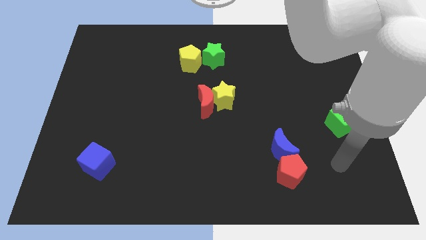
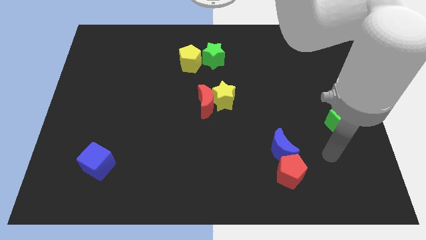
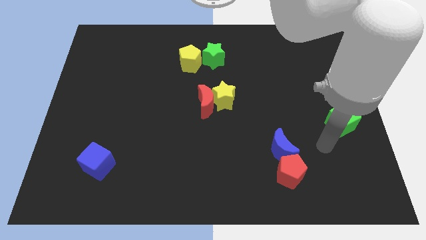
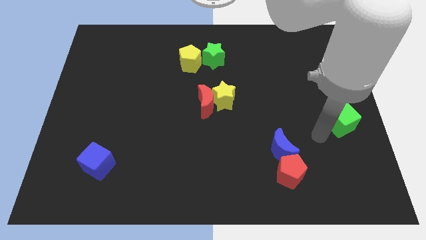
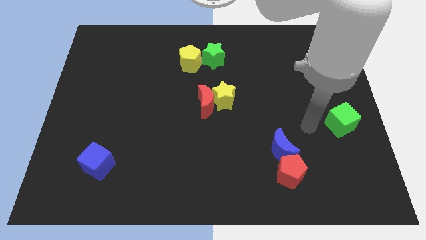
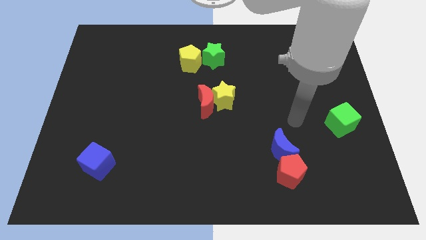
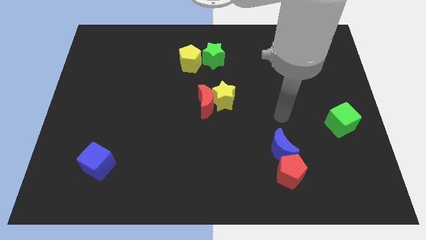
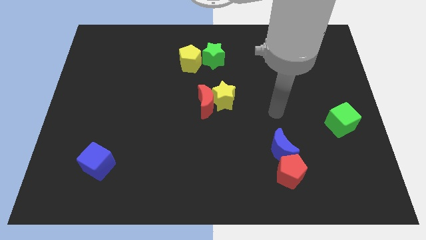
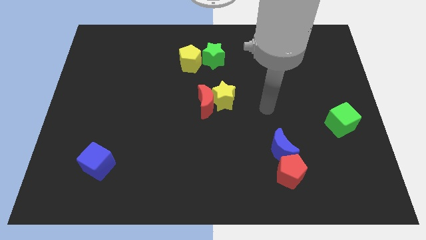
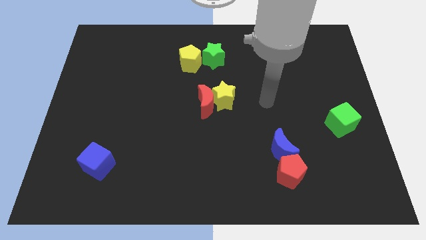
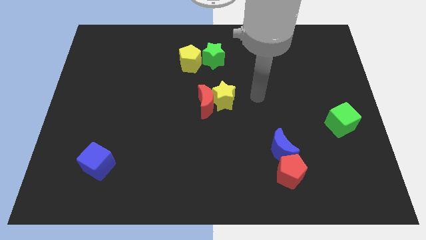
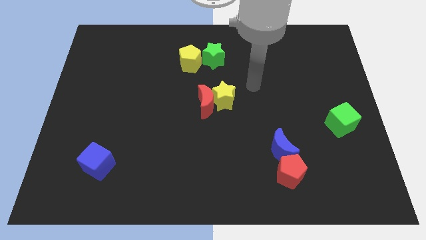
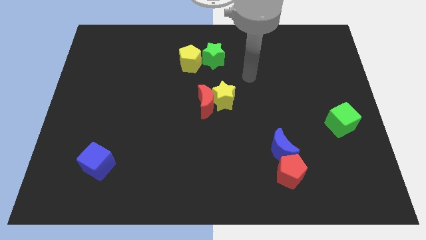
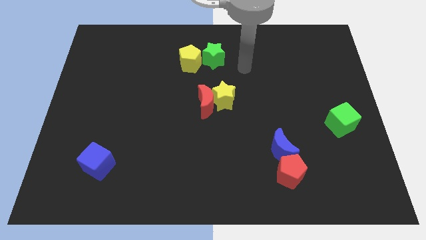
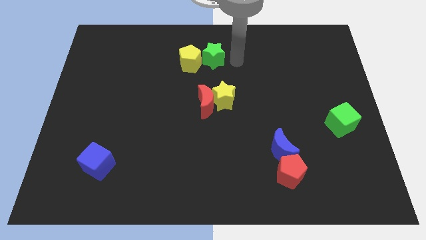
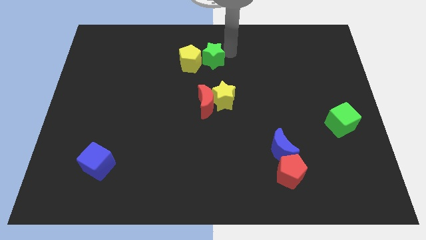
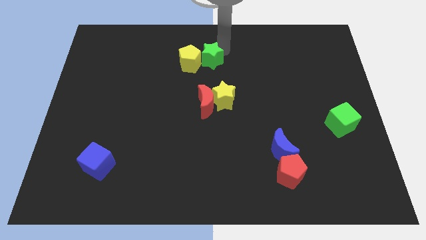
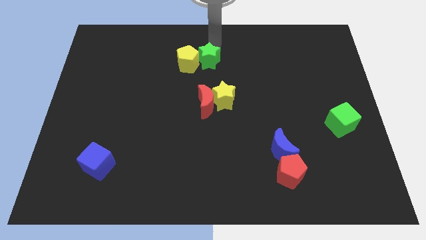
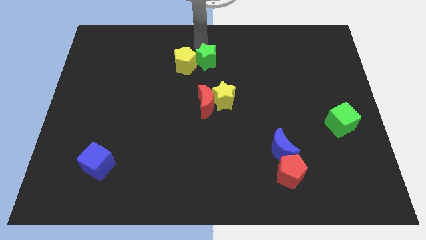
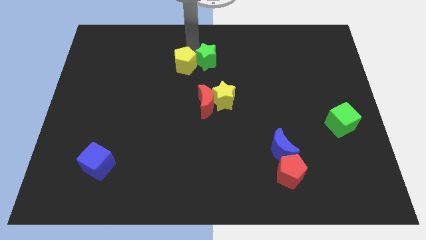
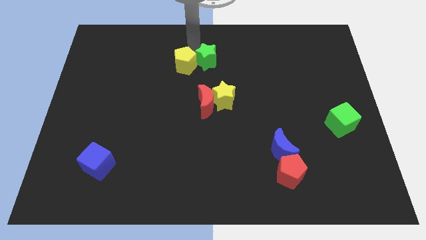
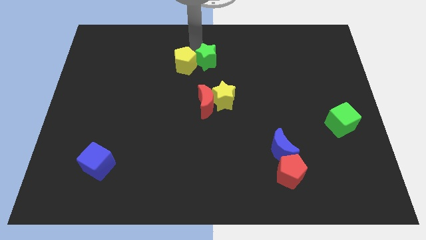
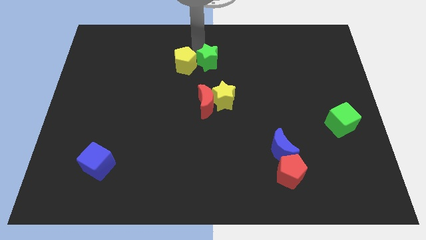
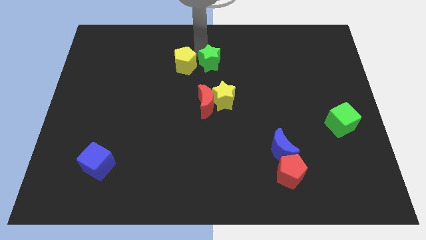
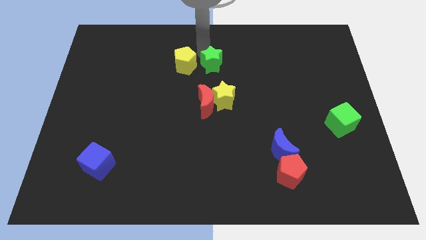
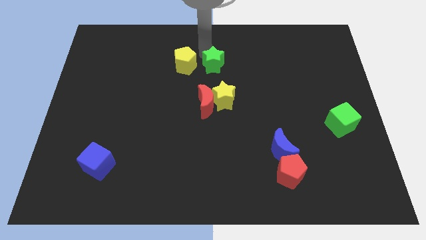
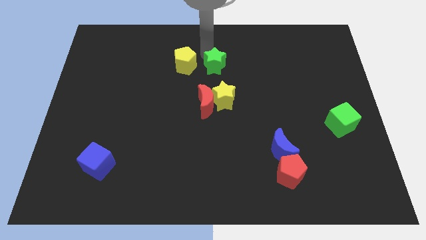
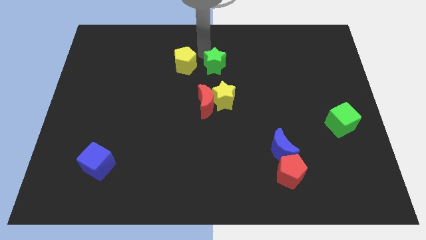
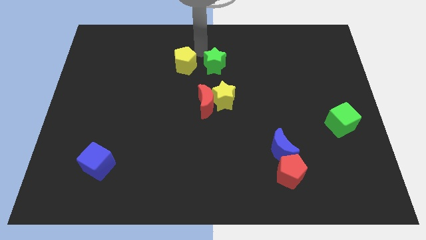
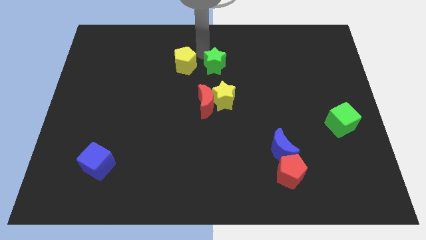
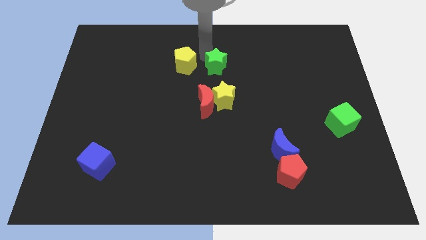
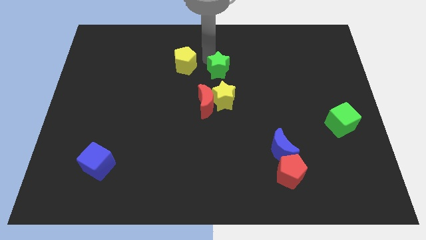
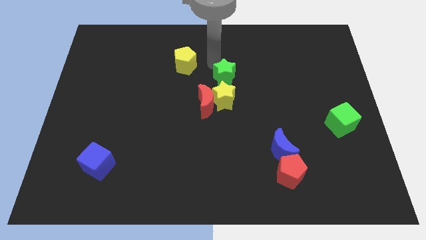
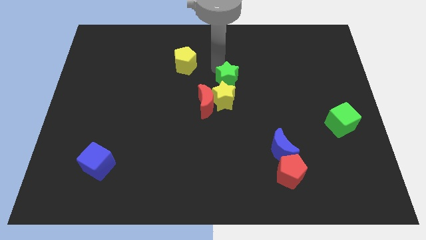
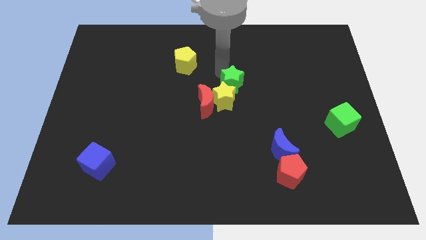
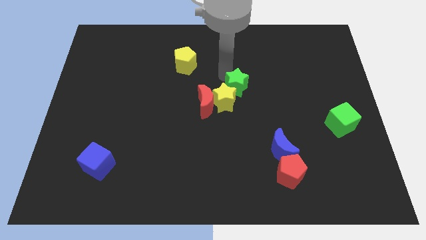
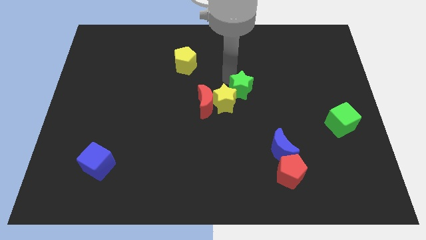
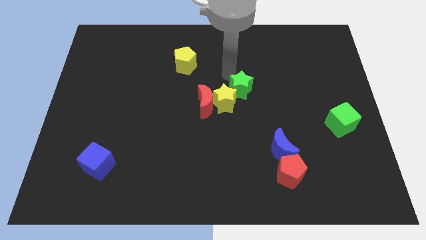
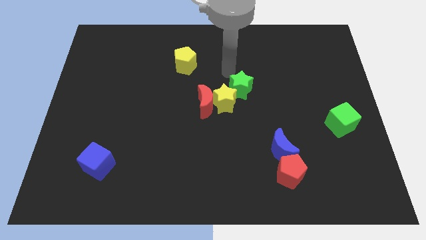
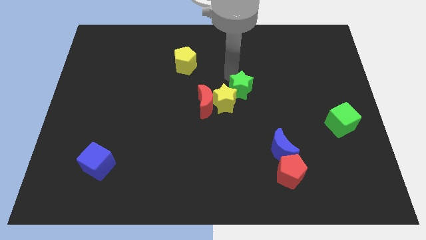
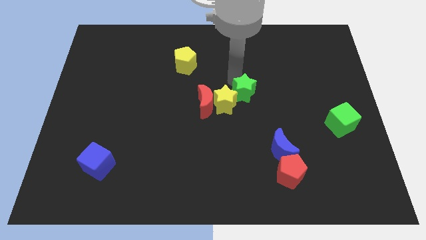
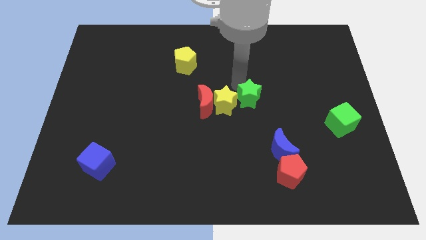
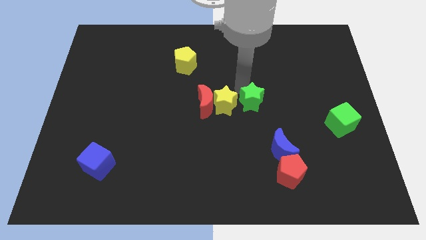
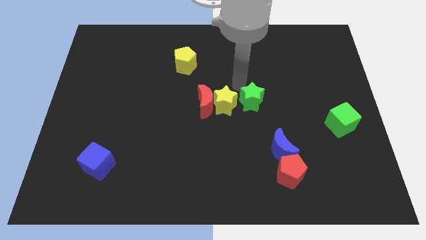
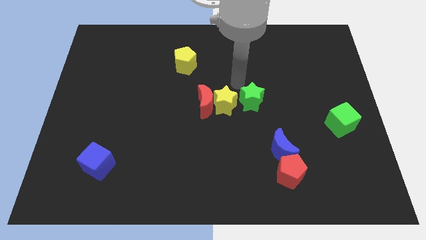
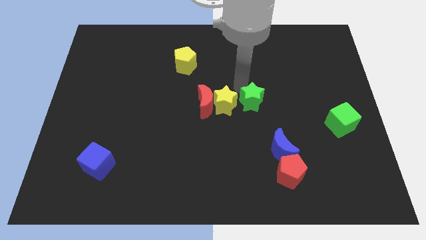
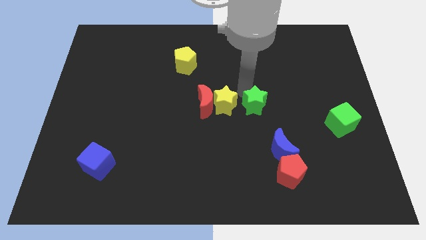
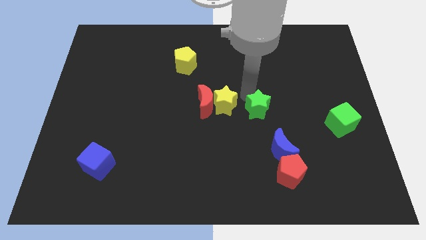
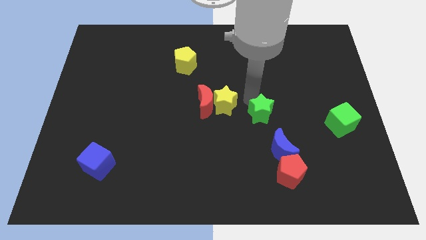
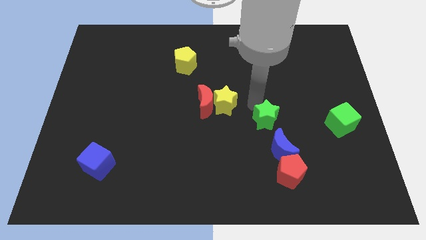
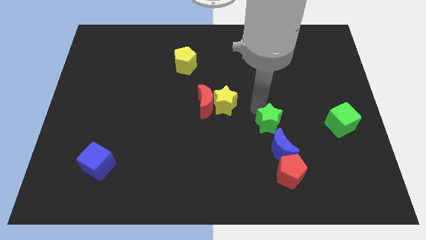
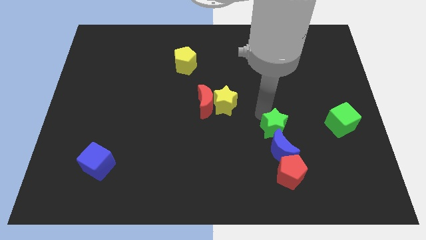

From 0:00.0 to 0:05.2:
slide the green star to the blue moon

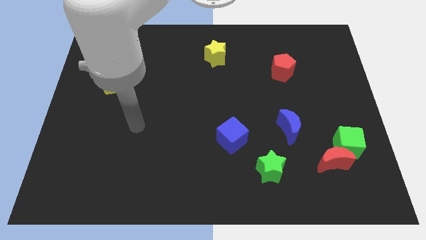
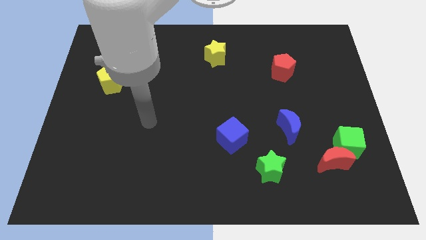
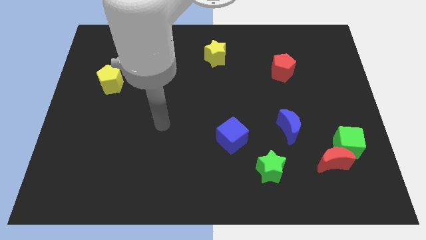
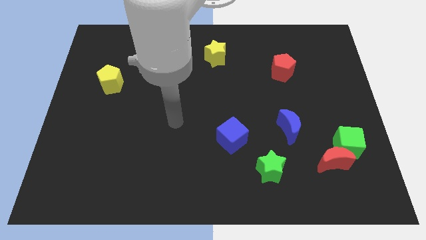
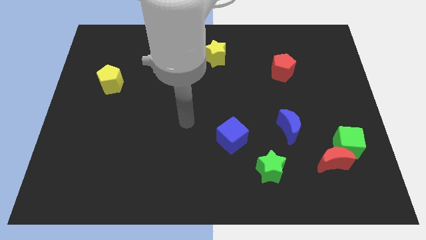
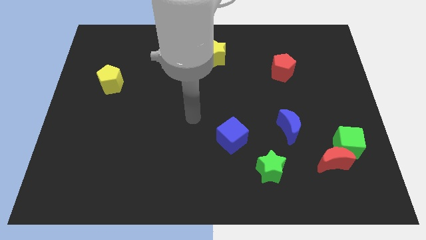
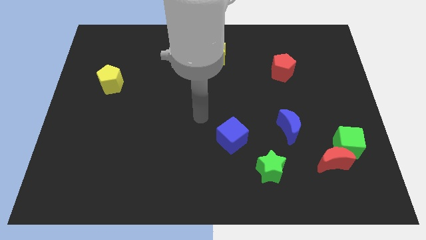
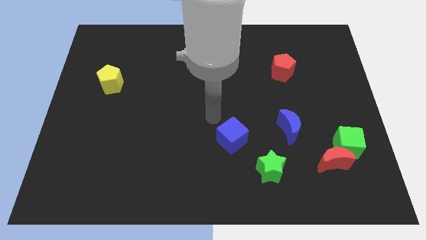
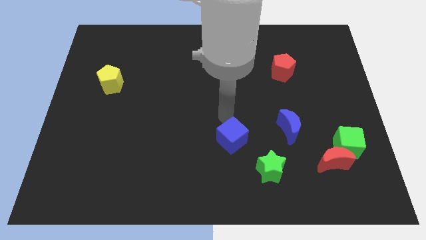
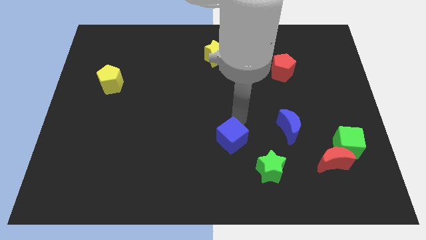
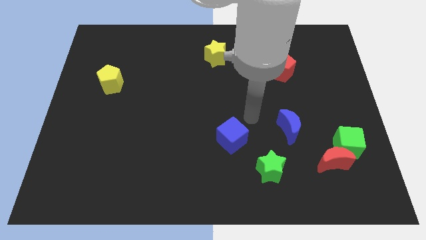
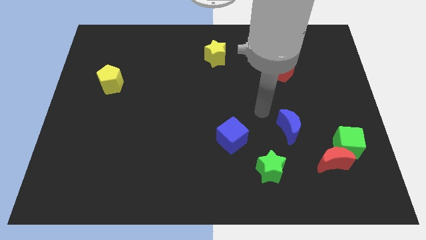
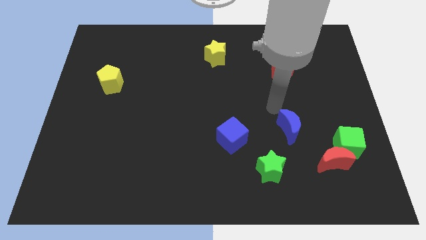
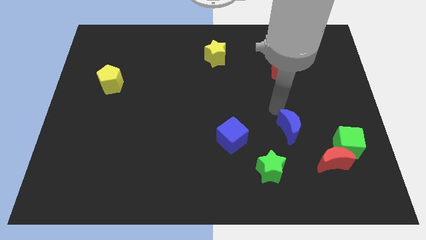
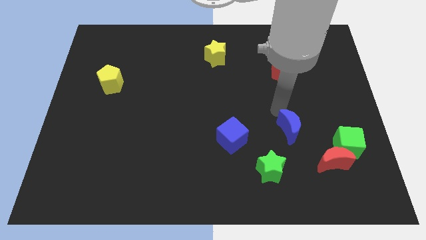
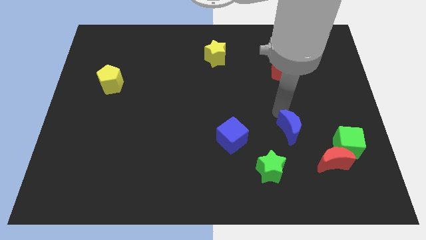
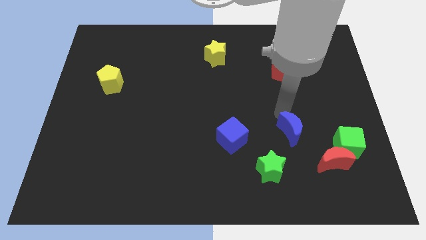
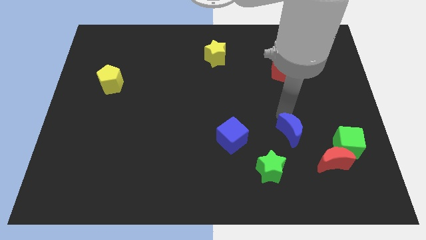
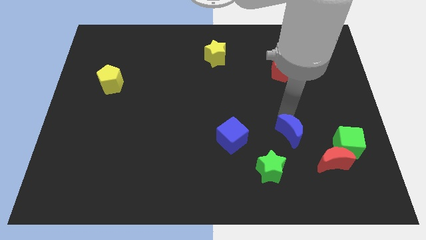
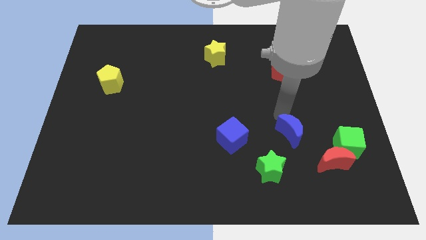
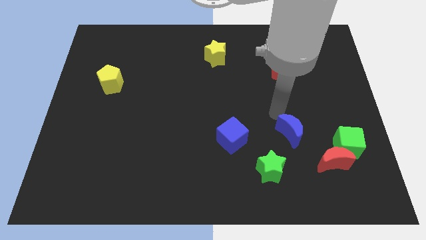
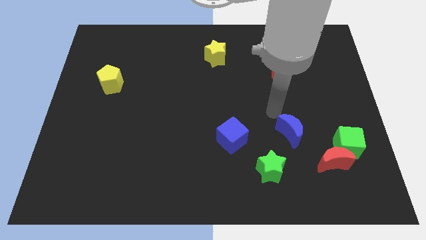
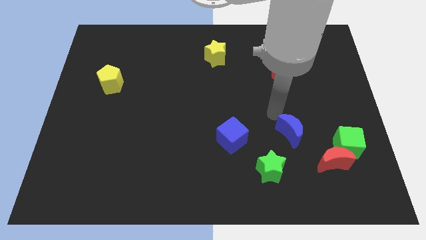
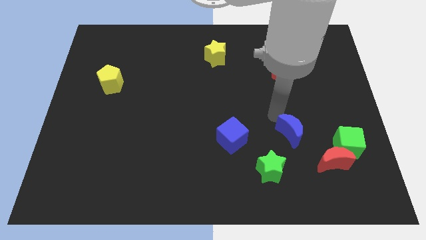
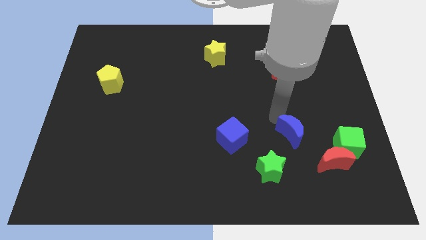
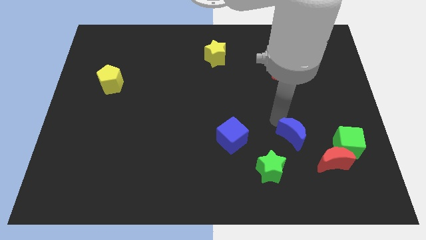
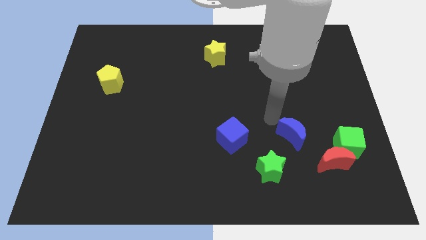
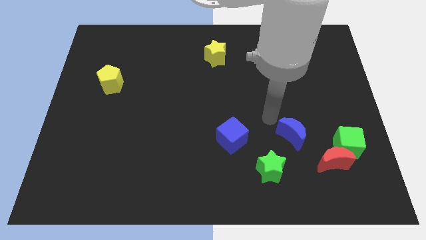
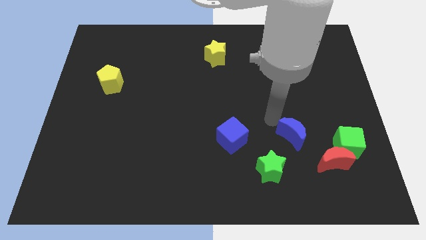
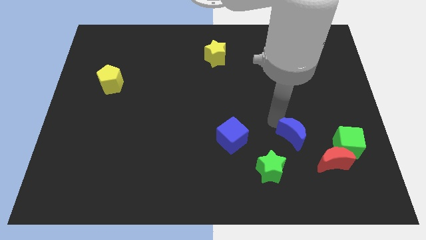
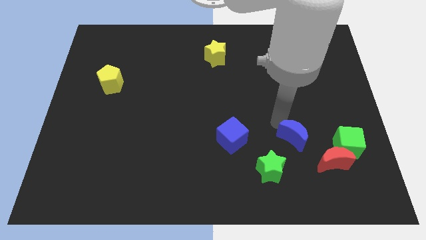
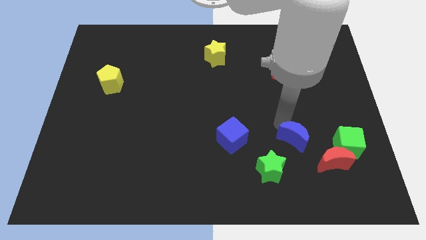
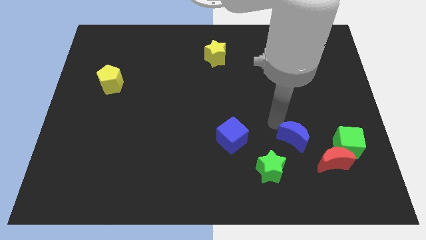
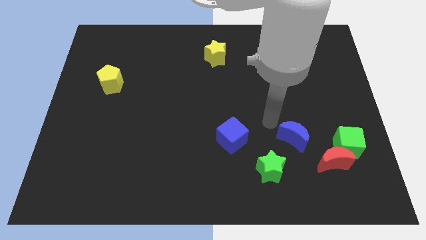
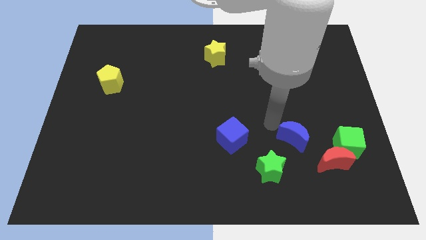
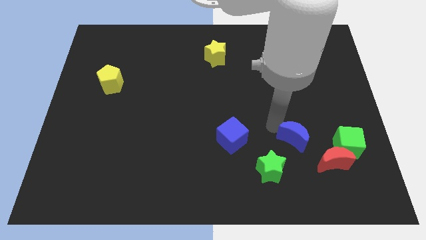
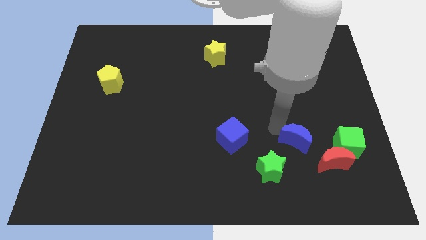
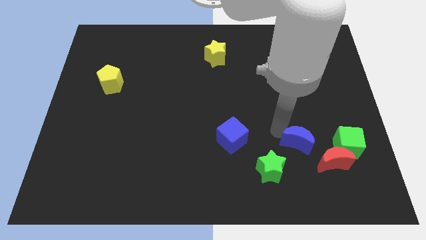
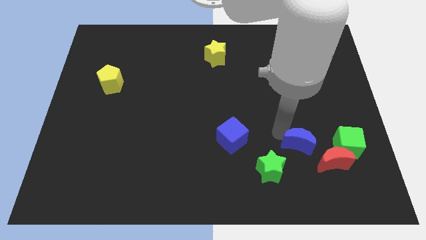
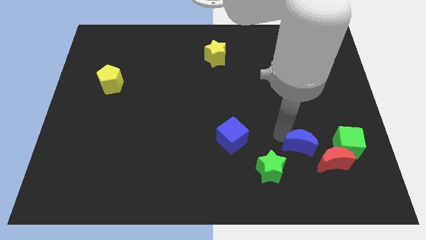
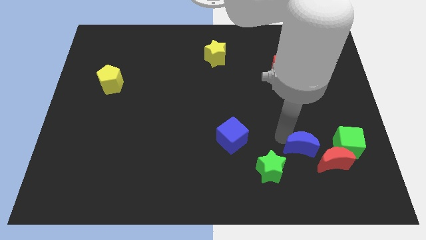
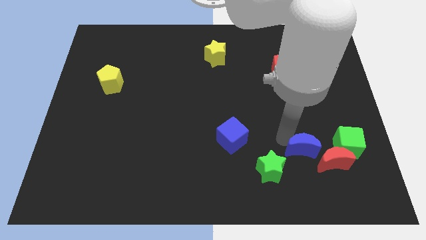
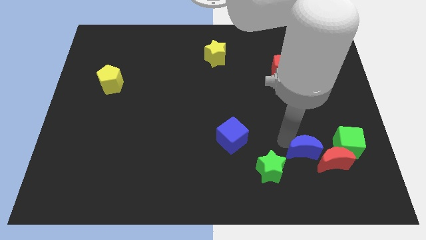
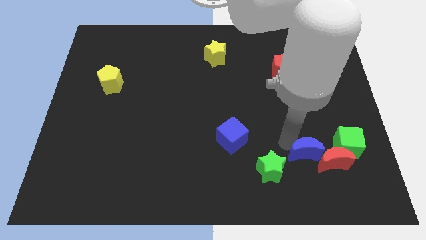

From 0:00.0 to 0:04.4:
move the blue moon to the red moon
